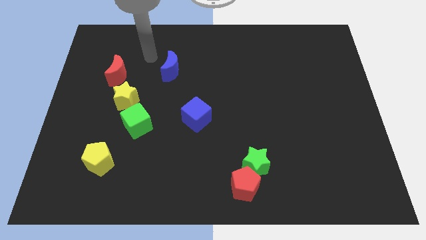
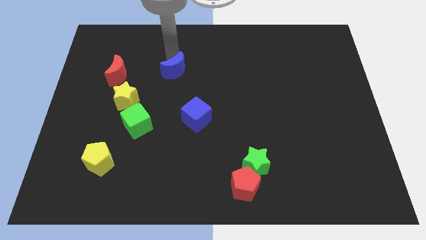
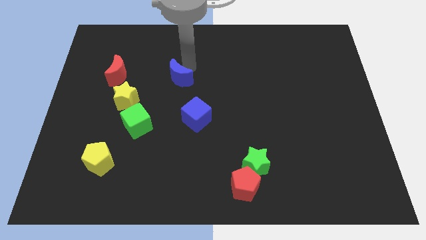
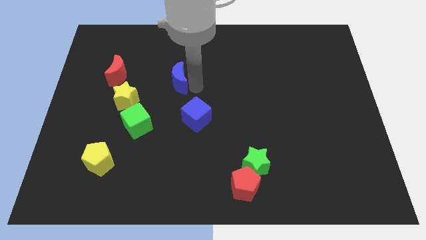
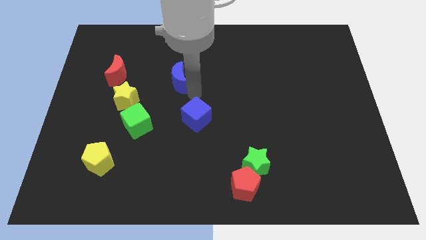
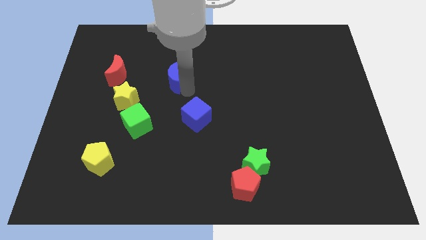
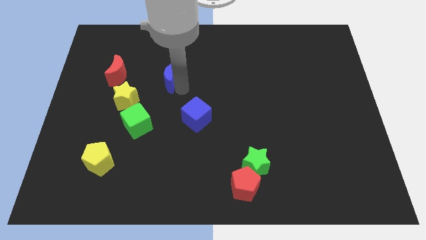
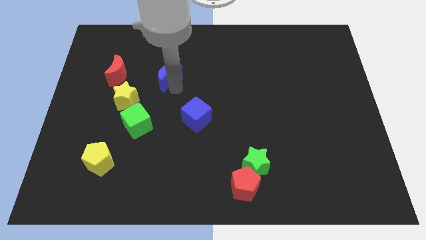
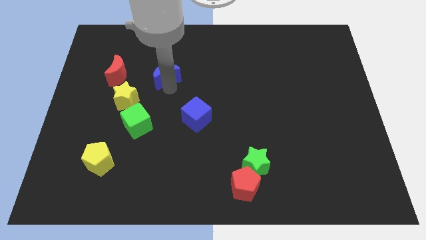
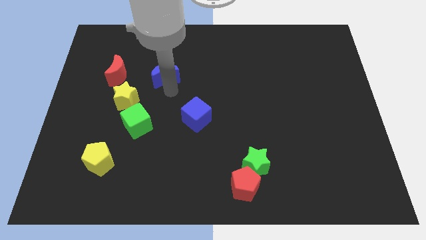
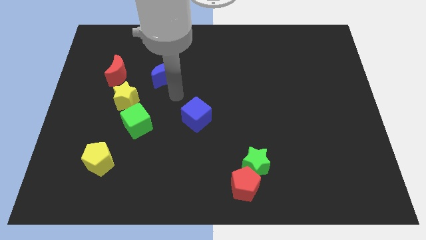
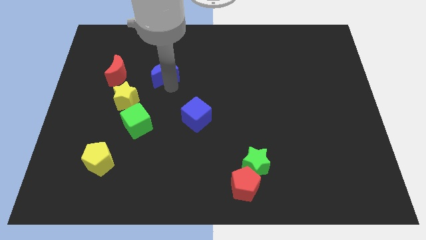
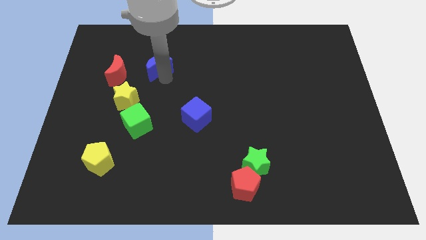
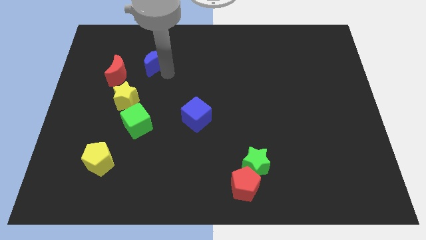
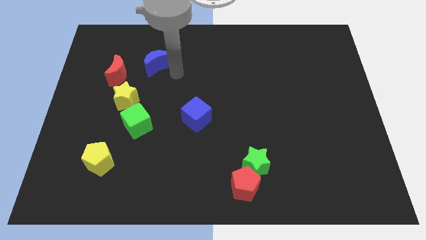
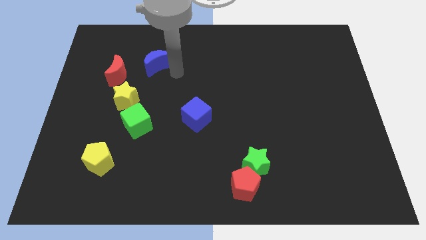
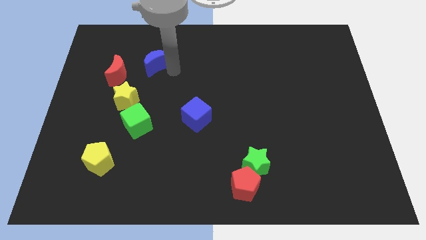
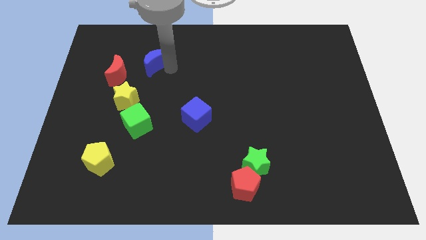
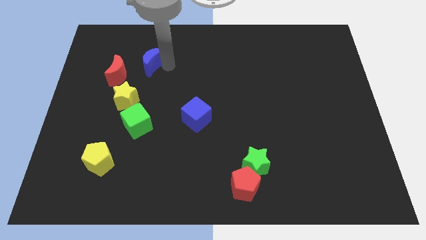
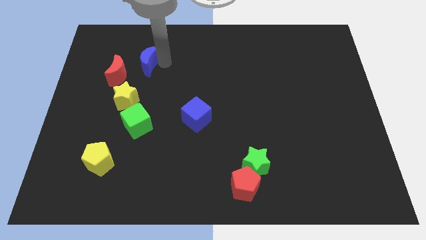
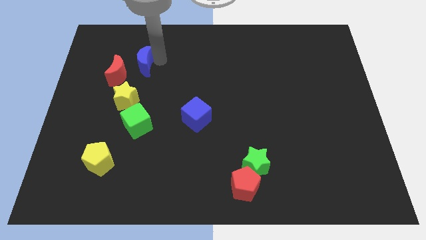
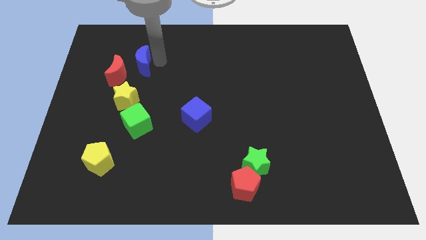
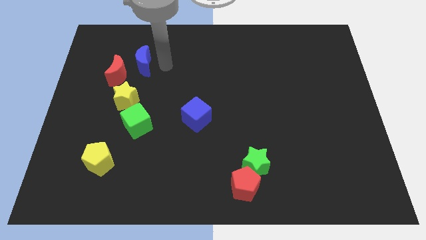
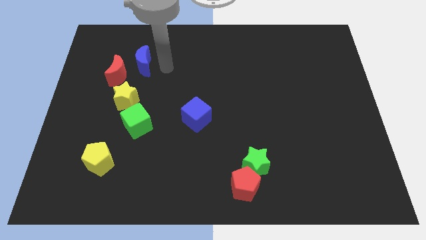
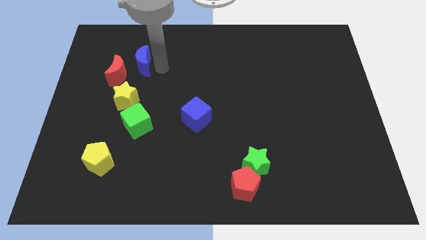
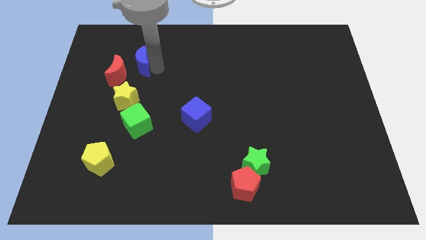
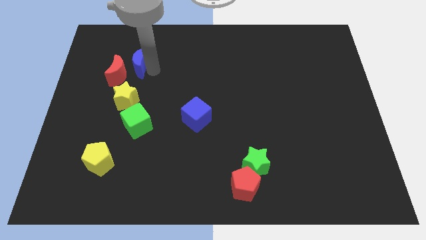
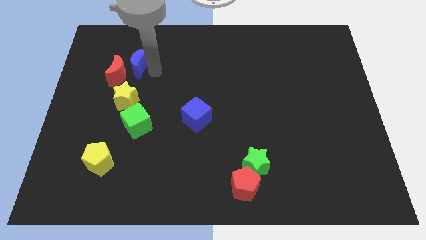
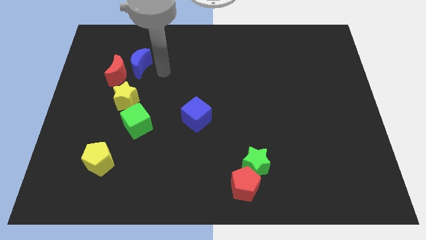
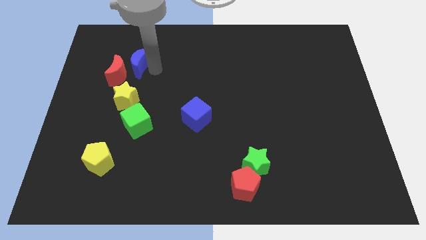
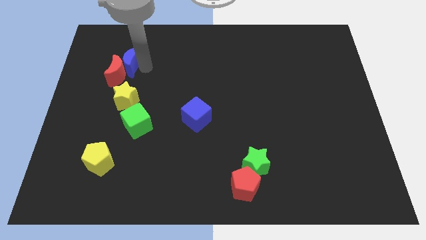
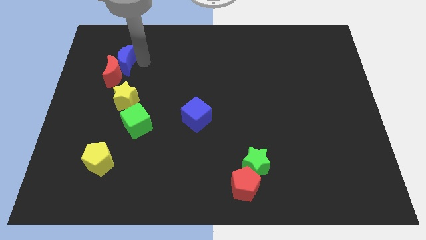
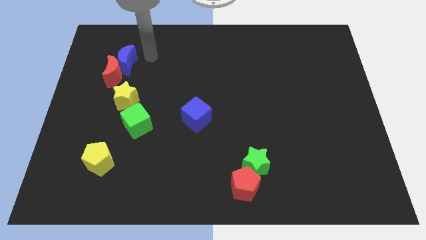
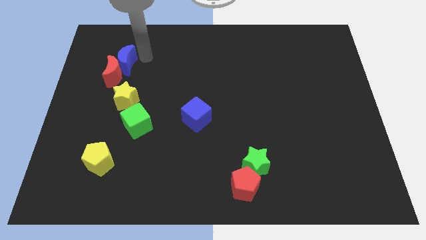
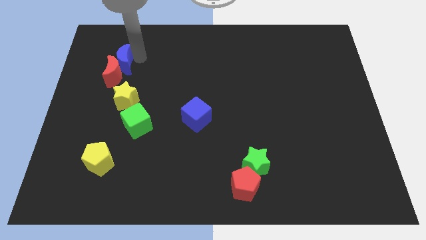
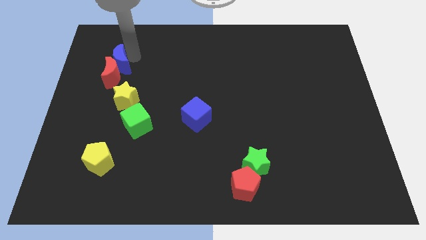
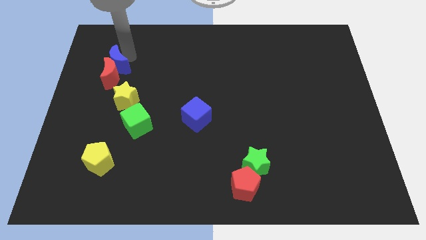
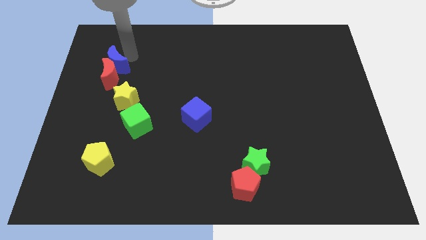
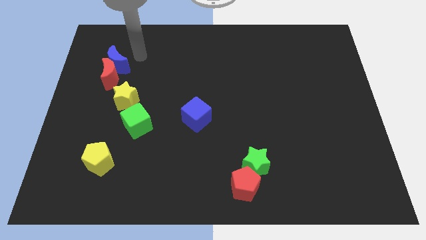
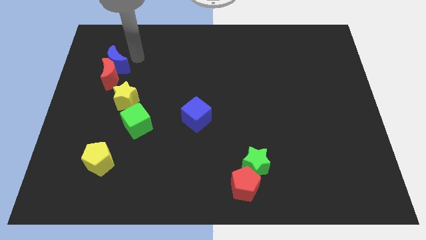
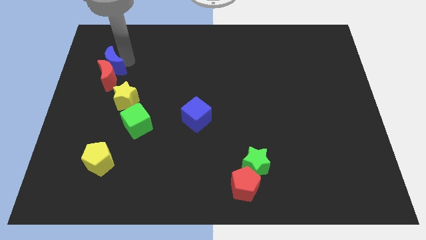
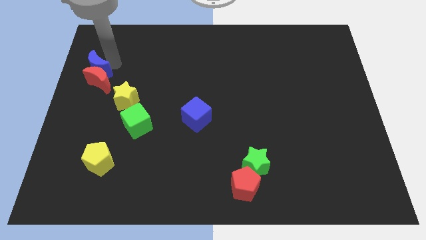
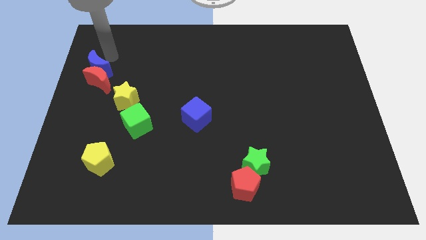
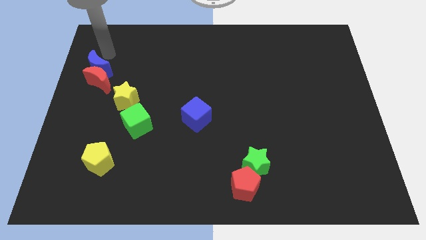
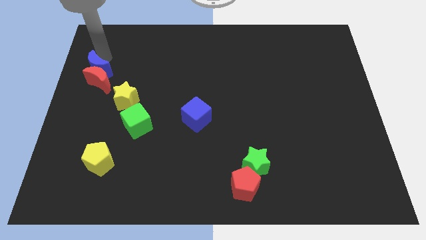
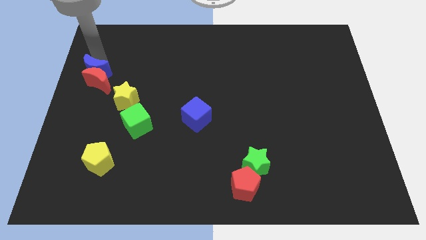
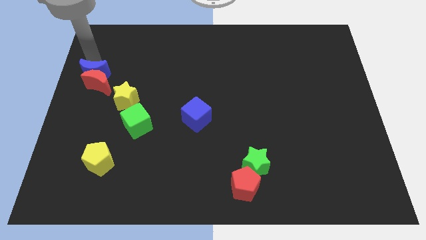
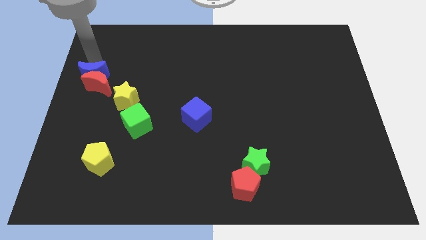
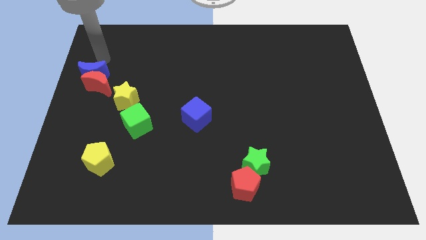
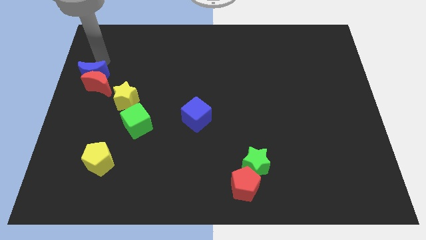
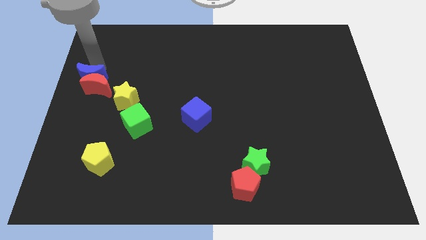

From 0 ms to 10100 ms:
slightly move the blue moon down and to the left

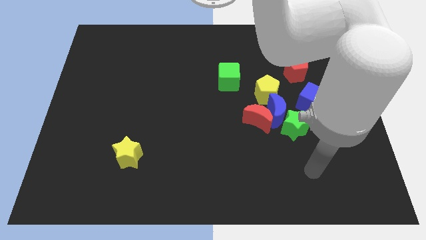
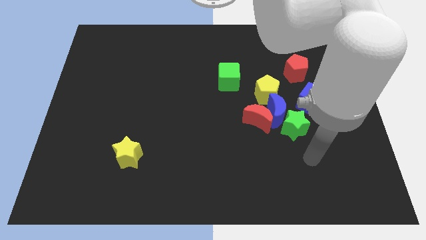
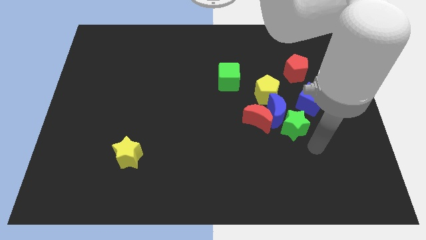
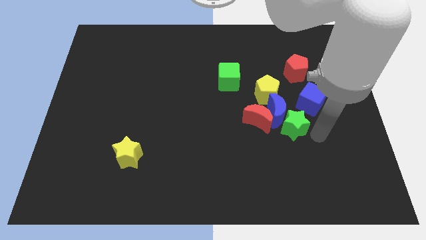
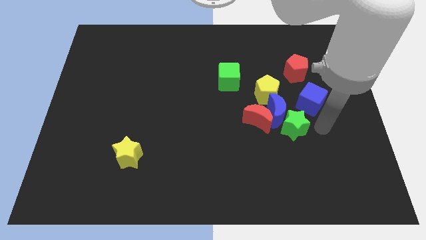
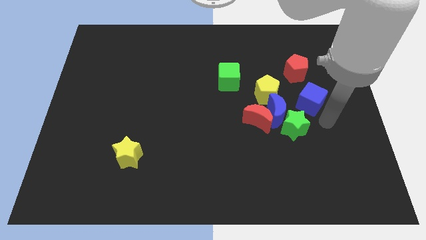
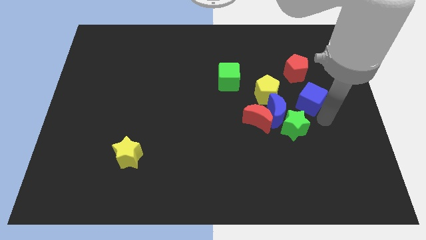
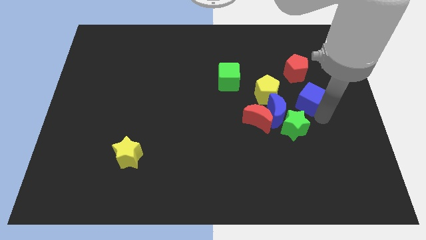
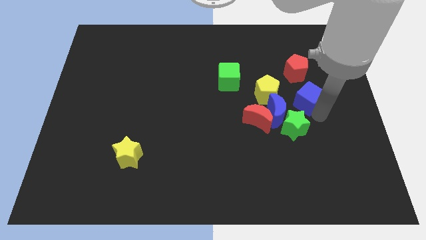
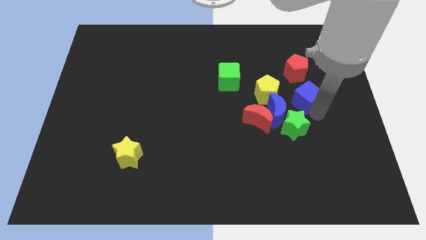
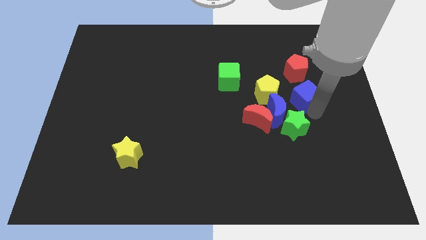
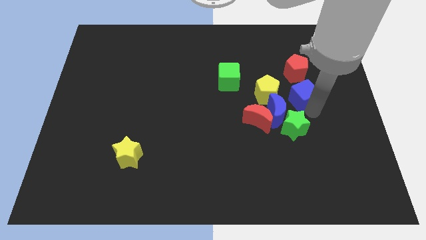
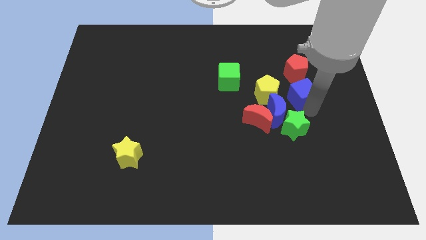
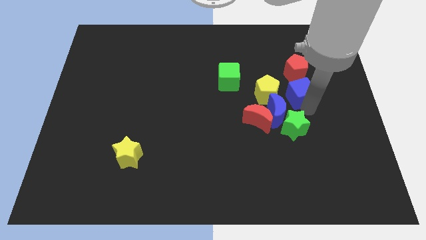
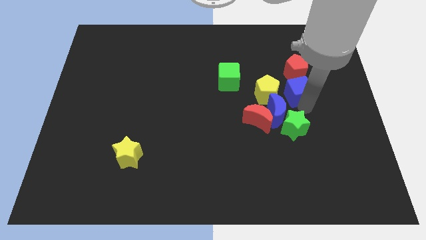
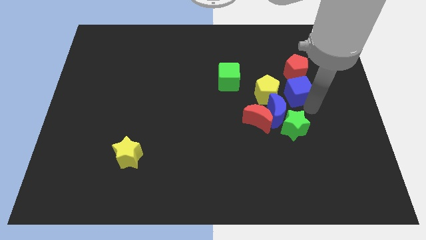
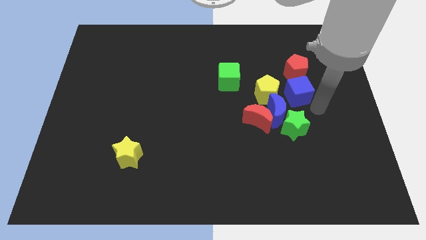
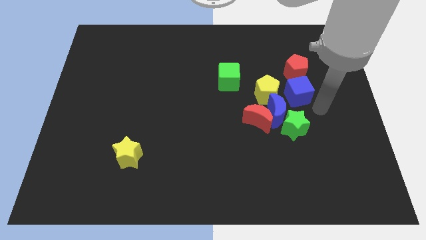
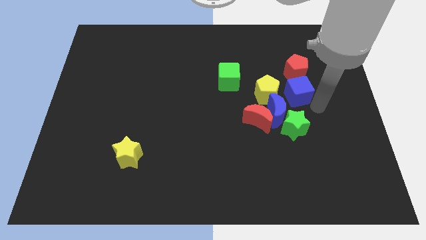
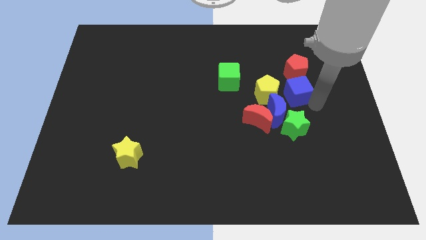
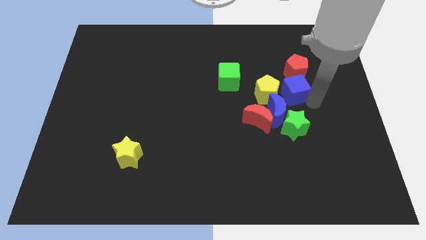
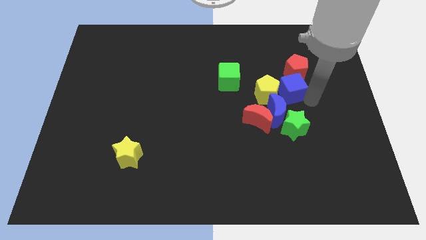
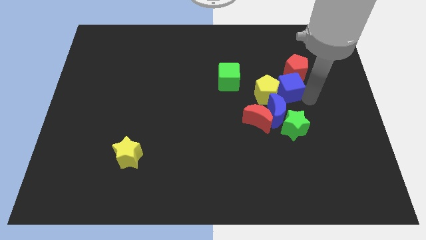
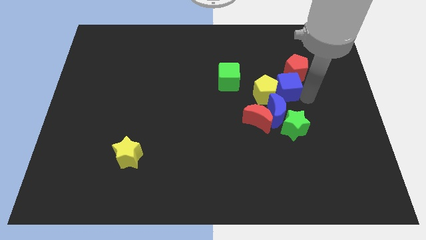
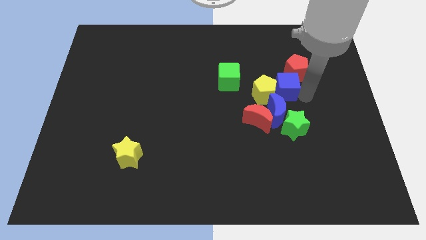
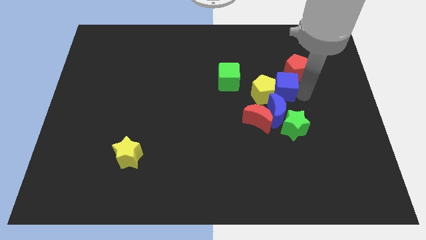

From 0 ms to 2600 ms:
slightly slide the blue cube upwards and to the left diagonally

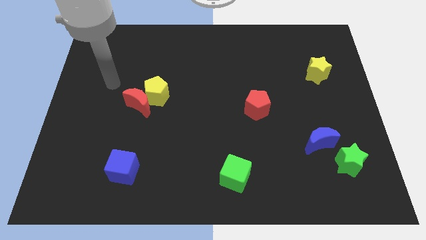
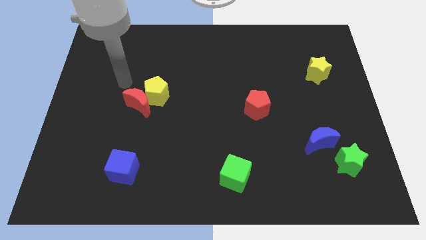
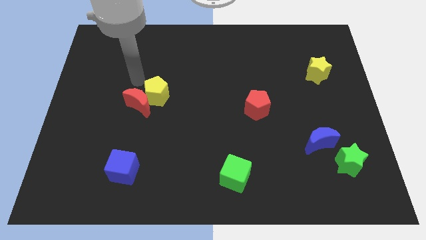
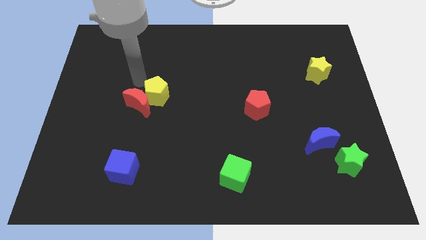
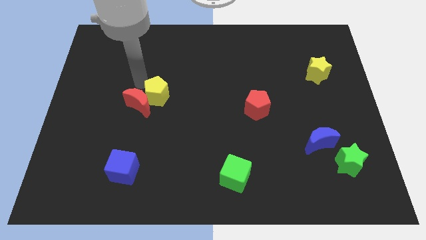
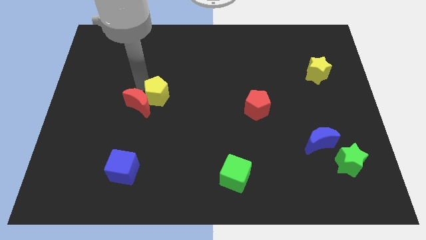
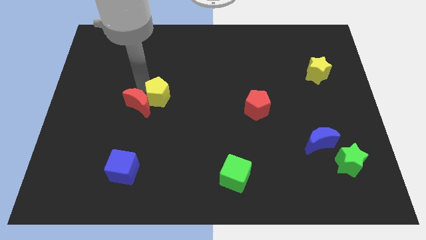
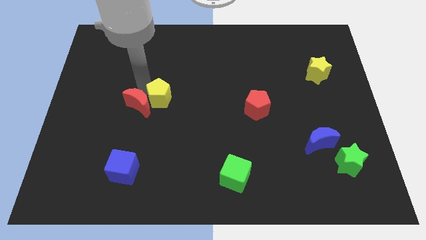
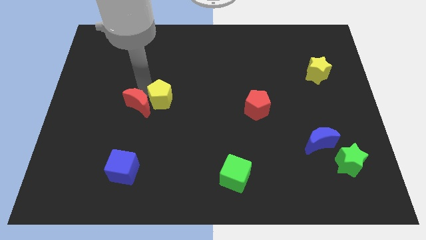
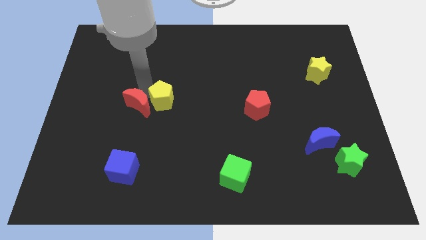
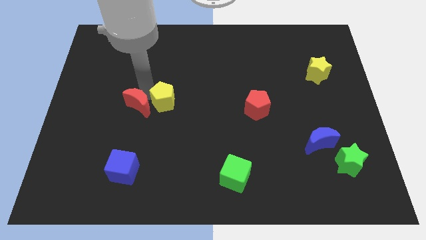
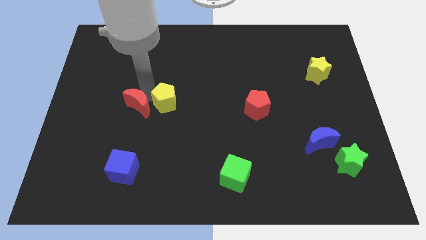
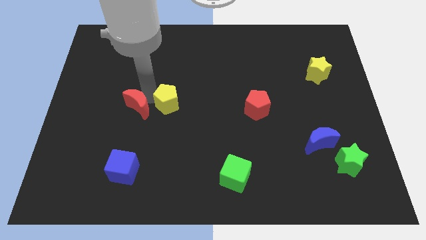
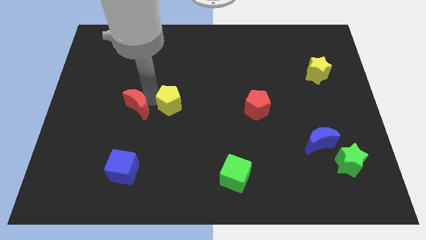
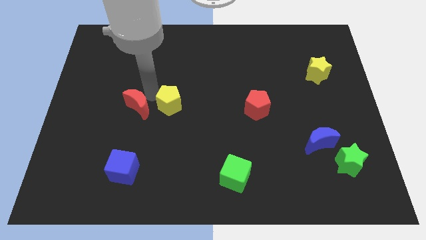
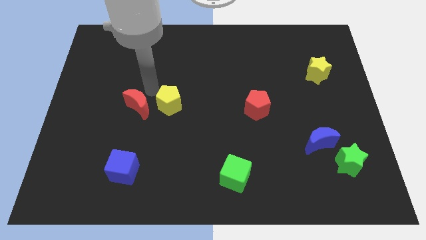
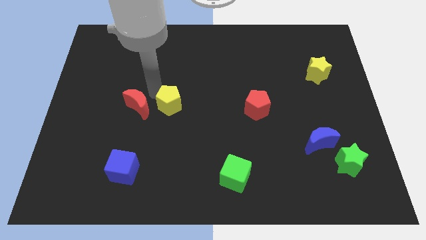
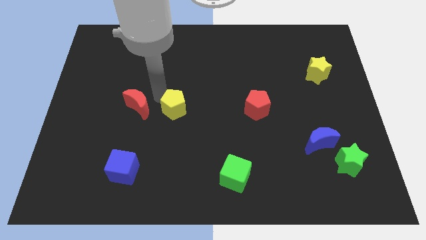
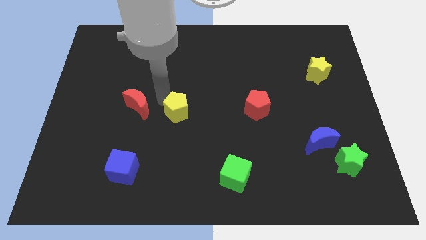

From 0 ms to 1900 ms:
slide the yellow pentagon a bit diagonally downwards and to the right
